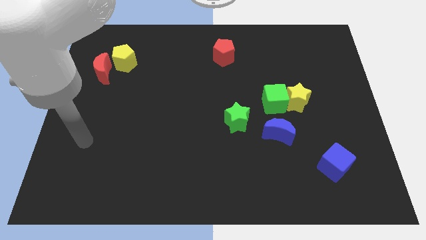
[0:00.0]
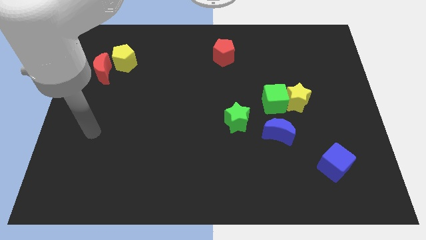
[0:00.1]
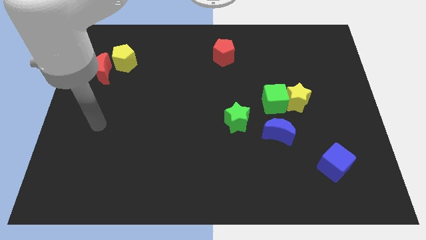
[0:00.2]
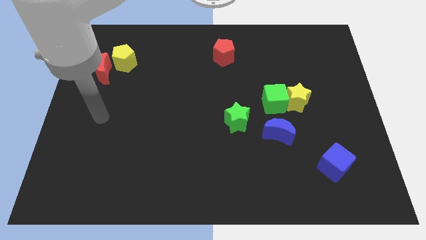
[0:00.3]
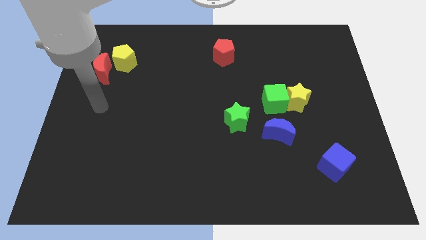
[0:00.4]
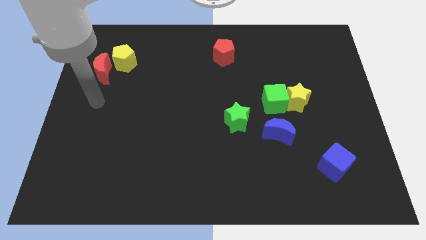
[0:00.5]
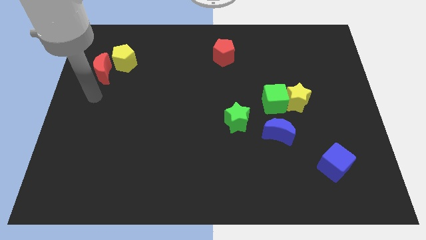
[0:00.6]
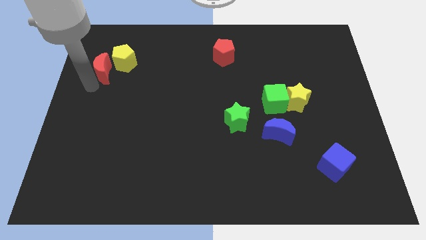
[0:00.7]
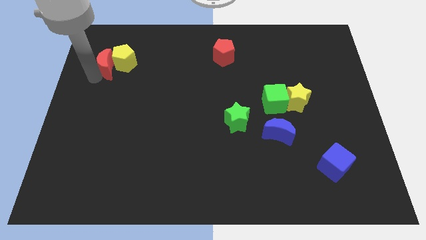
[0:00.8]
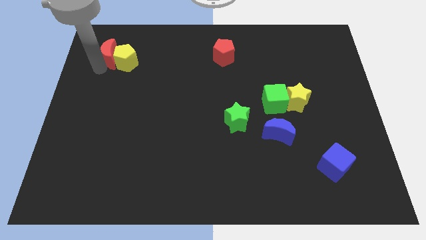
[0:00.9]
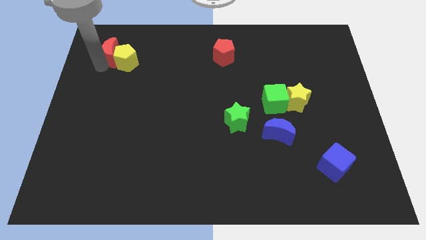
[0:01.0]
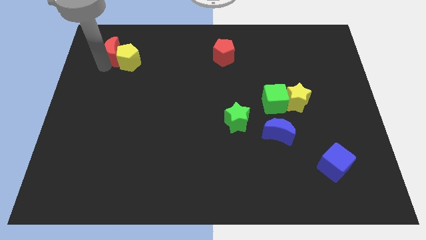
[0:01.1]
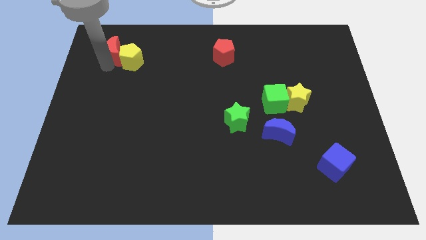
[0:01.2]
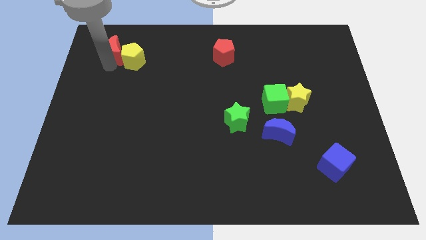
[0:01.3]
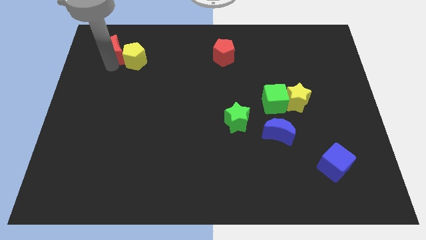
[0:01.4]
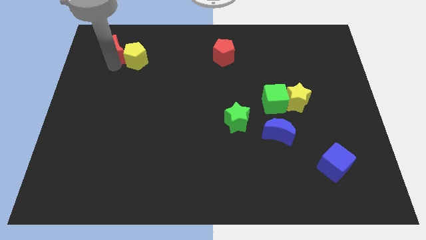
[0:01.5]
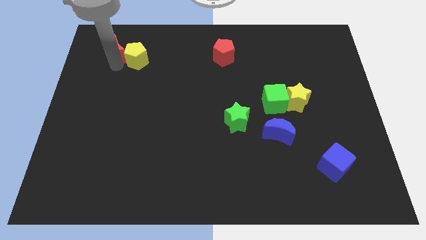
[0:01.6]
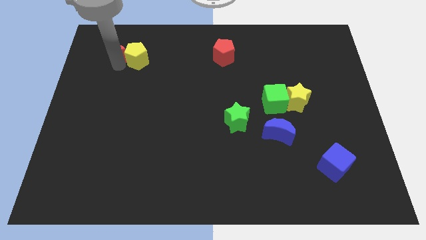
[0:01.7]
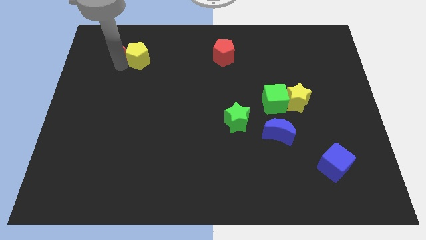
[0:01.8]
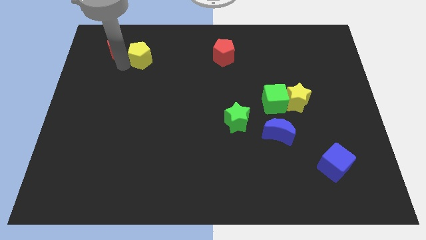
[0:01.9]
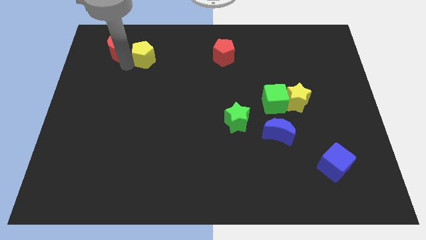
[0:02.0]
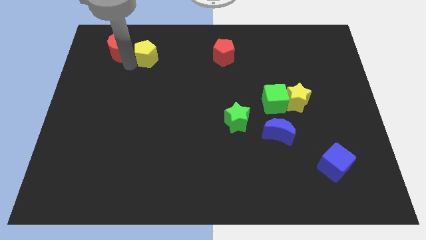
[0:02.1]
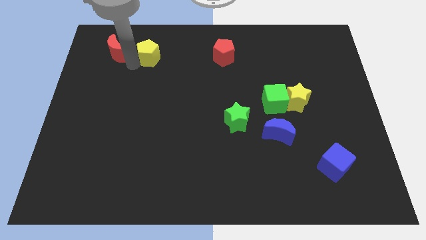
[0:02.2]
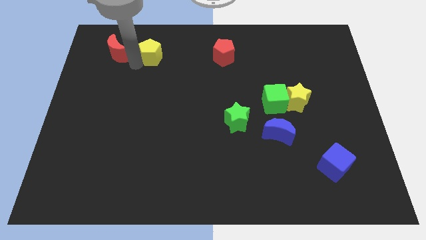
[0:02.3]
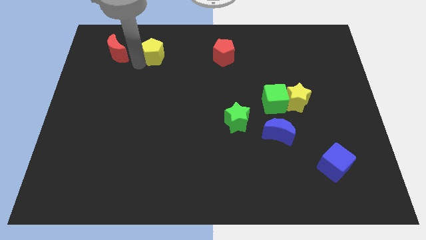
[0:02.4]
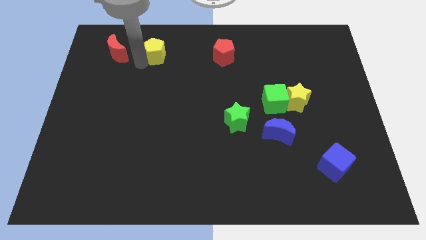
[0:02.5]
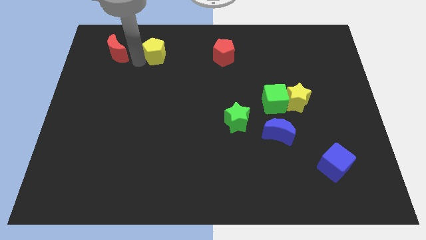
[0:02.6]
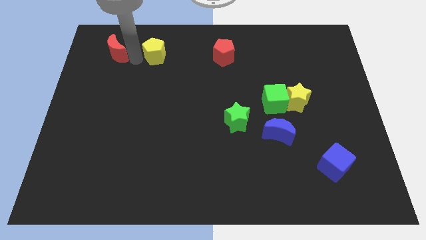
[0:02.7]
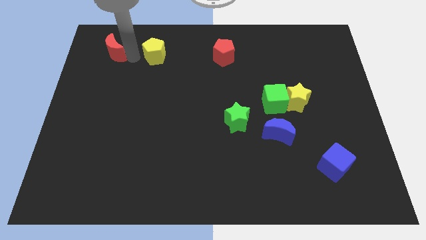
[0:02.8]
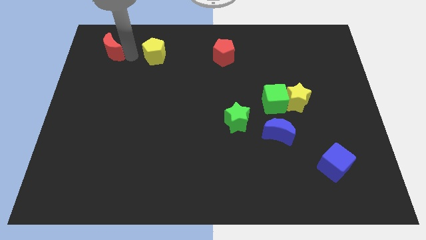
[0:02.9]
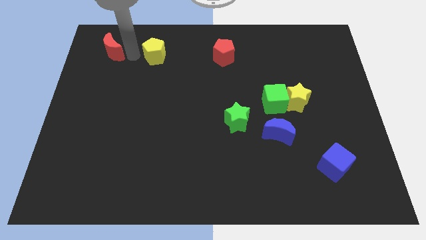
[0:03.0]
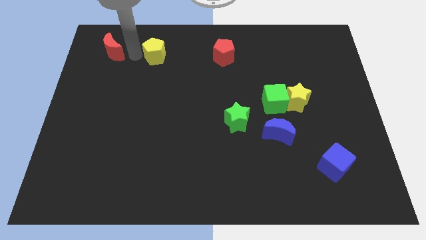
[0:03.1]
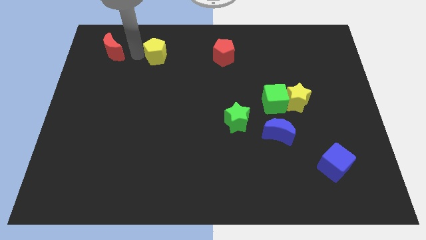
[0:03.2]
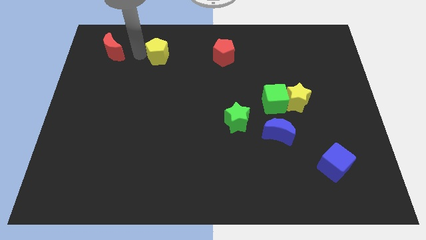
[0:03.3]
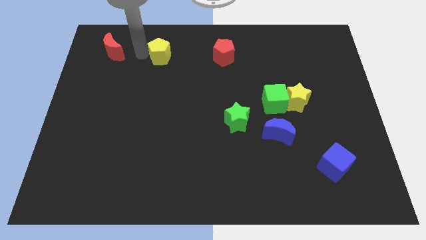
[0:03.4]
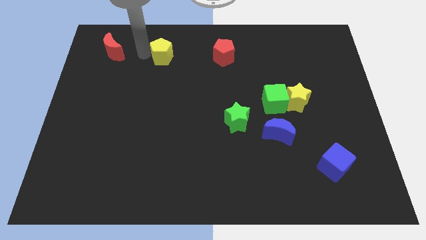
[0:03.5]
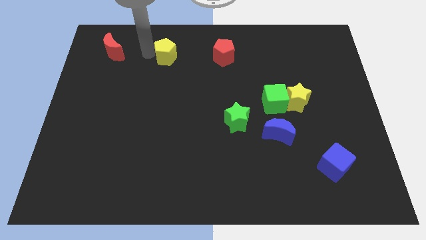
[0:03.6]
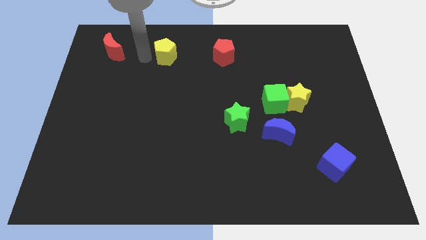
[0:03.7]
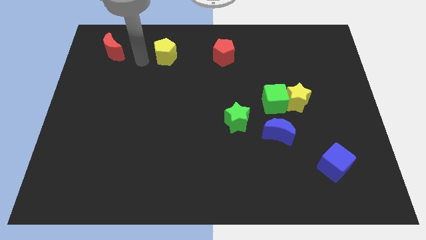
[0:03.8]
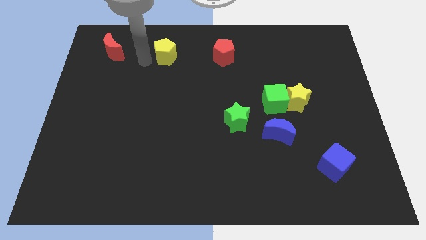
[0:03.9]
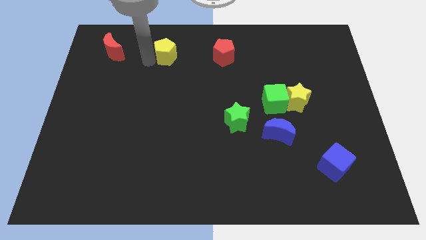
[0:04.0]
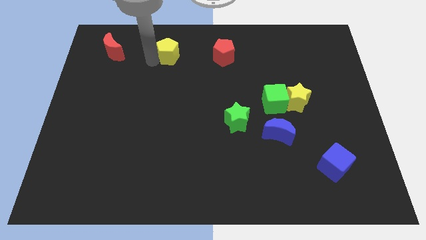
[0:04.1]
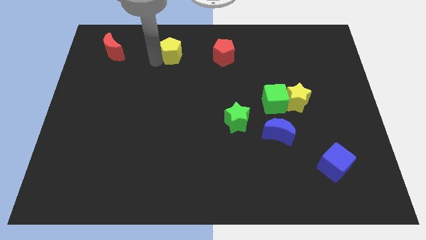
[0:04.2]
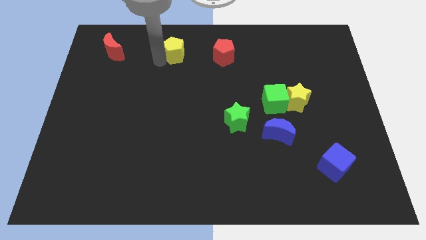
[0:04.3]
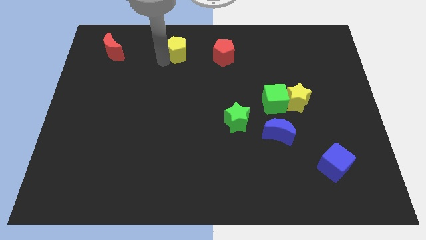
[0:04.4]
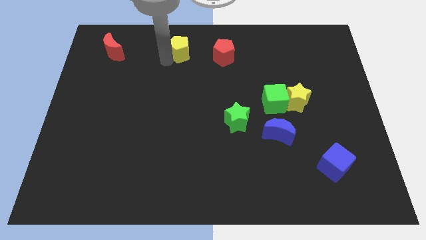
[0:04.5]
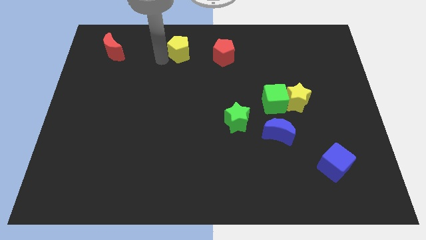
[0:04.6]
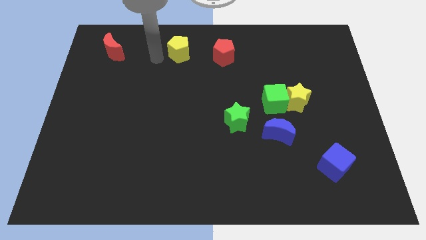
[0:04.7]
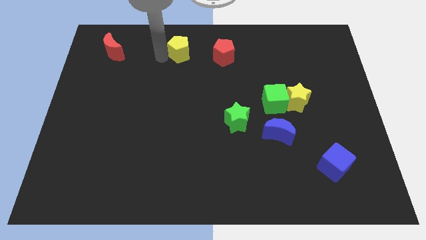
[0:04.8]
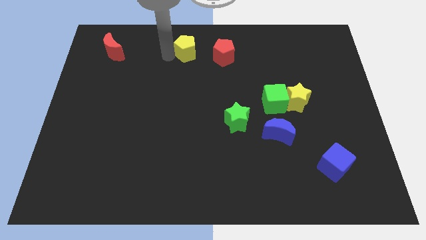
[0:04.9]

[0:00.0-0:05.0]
move the yellow pentagon to the top

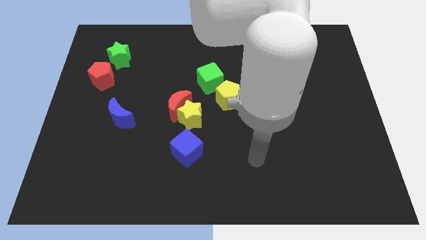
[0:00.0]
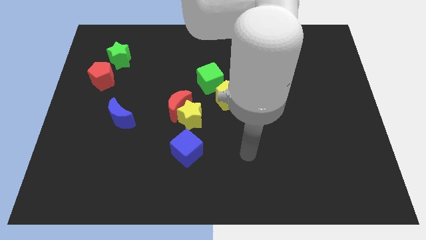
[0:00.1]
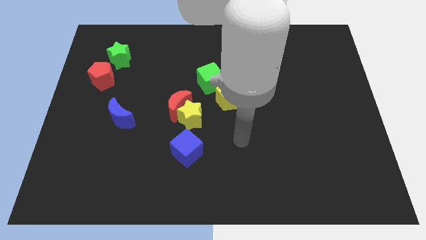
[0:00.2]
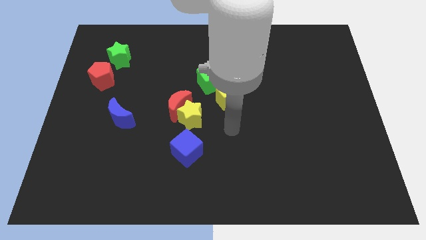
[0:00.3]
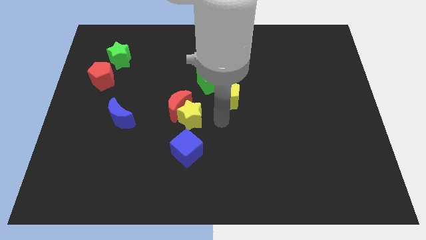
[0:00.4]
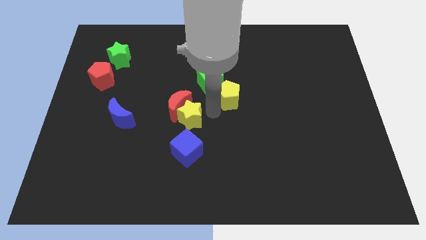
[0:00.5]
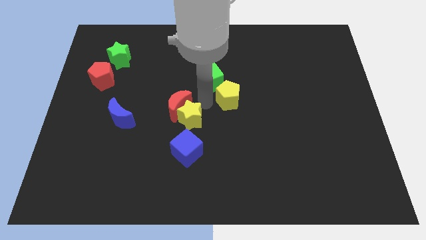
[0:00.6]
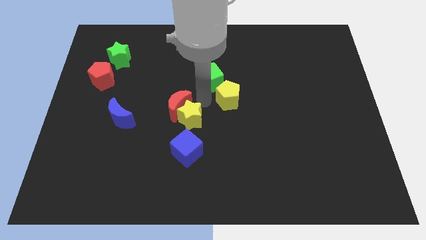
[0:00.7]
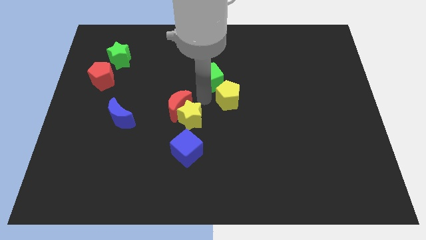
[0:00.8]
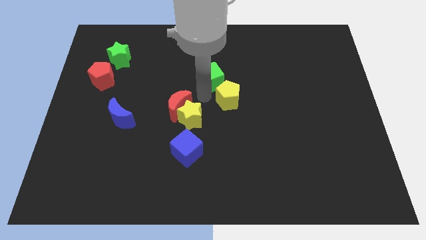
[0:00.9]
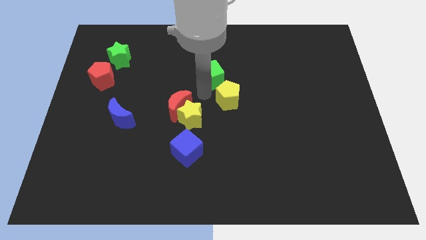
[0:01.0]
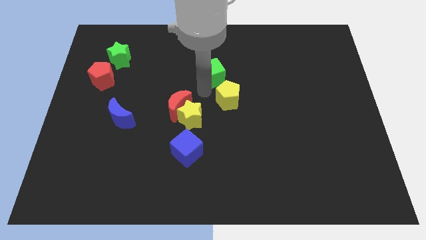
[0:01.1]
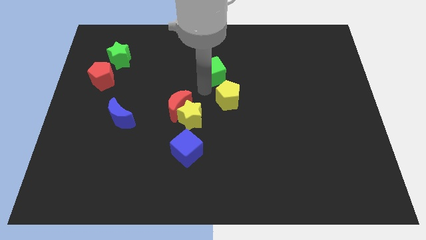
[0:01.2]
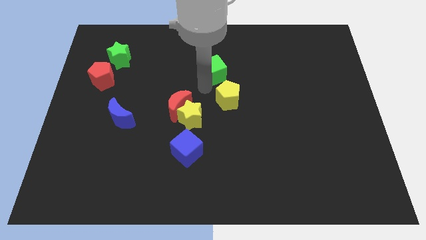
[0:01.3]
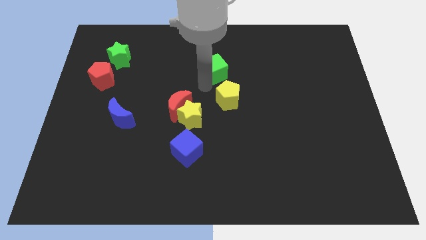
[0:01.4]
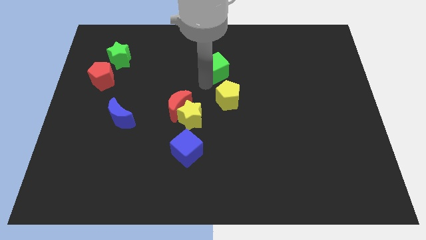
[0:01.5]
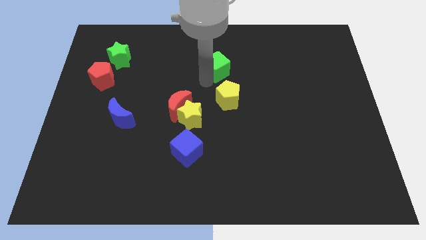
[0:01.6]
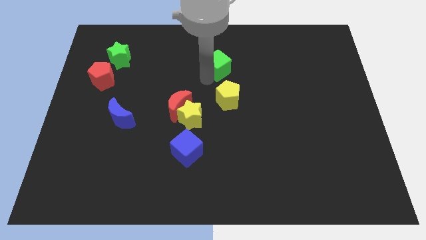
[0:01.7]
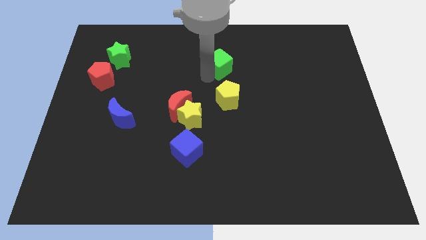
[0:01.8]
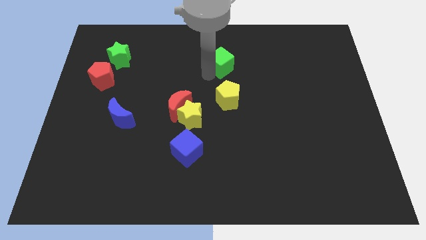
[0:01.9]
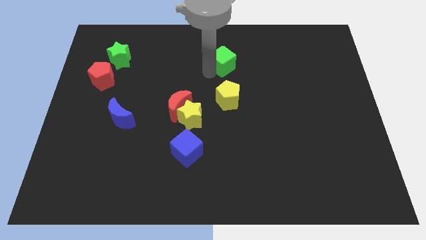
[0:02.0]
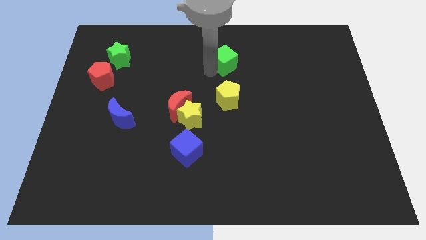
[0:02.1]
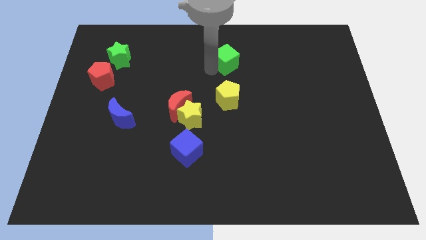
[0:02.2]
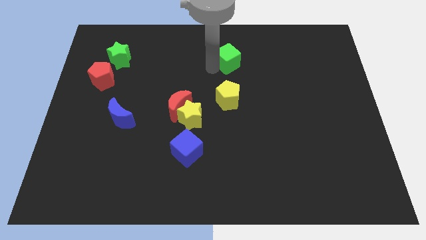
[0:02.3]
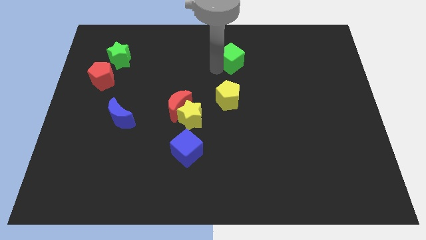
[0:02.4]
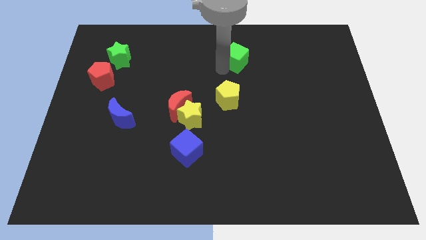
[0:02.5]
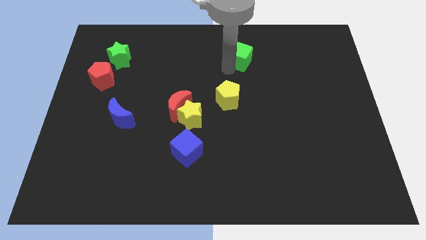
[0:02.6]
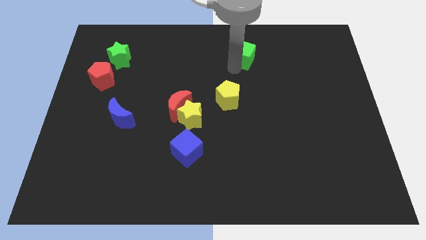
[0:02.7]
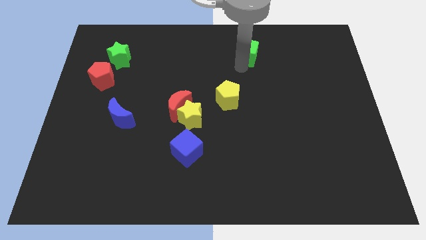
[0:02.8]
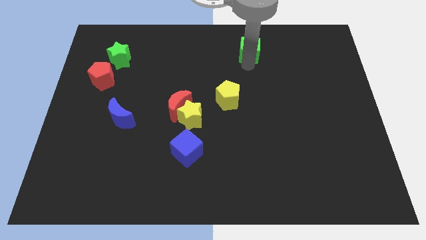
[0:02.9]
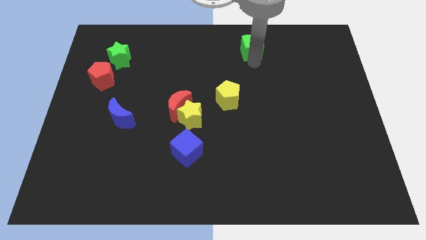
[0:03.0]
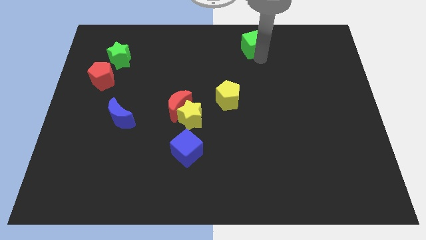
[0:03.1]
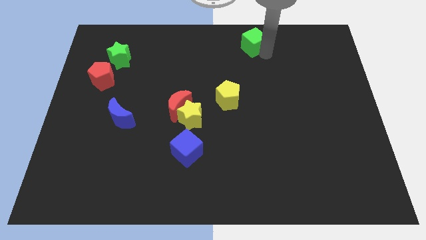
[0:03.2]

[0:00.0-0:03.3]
move the green cube to the towards your base
